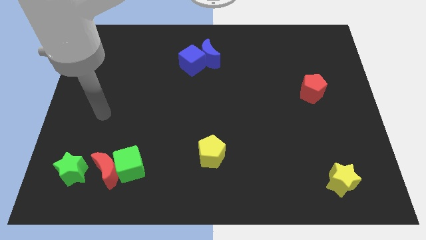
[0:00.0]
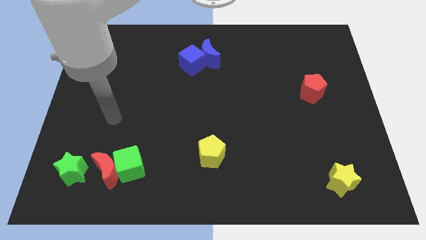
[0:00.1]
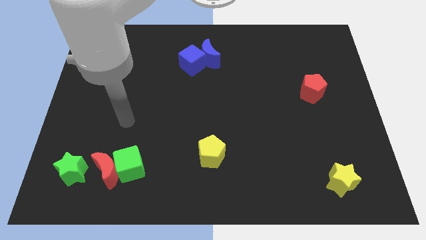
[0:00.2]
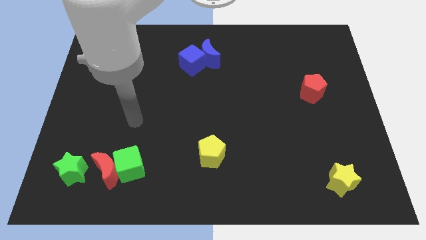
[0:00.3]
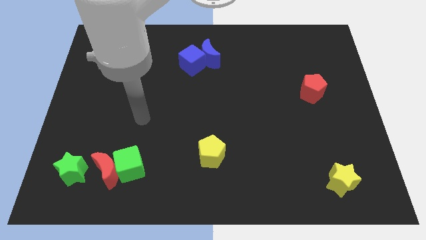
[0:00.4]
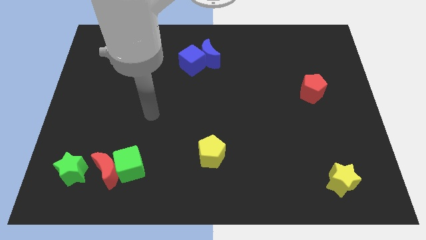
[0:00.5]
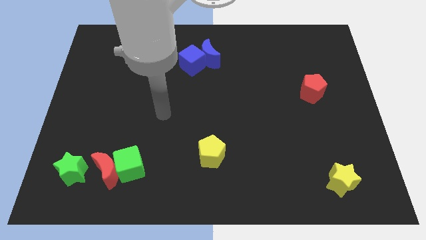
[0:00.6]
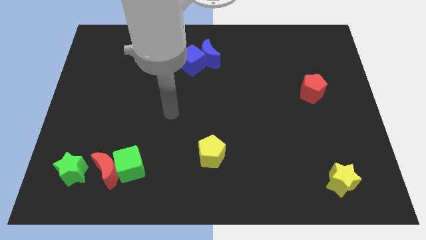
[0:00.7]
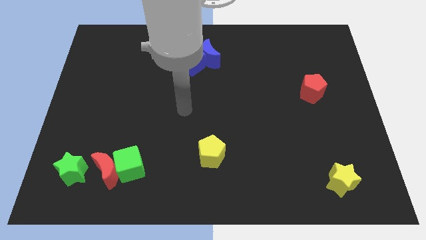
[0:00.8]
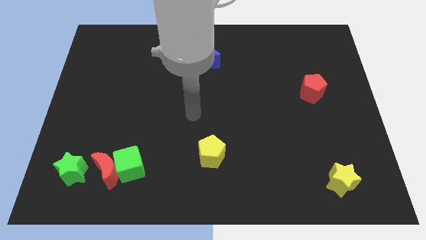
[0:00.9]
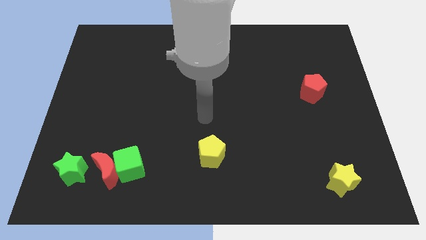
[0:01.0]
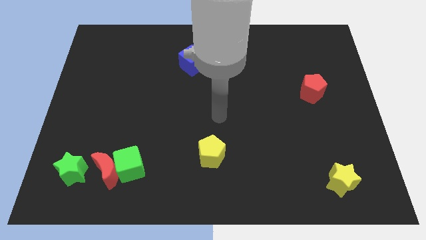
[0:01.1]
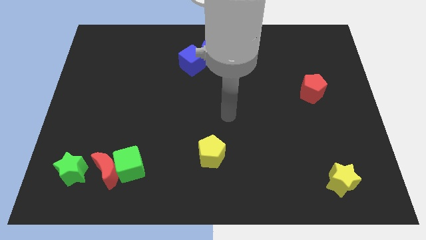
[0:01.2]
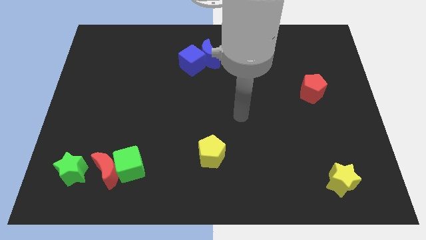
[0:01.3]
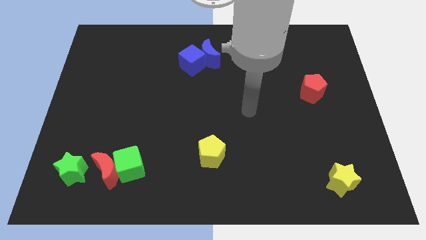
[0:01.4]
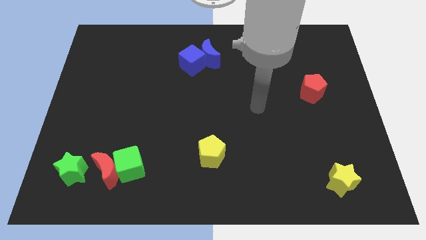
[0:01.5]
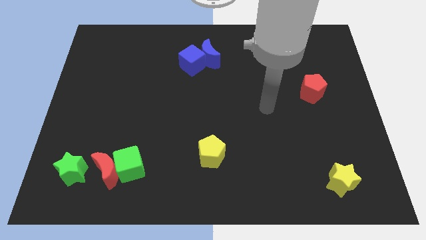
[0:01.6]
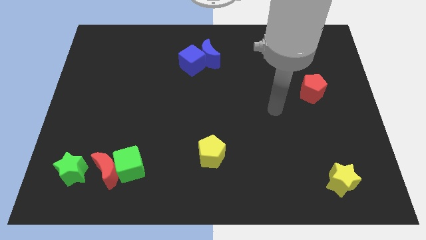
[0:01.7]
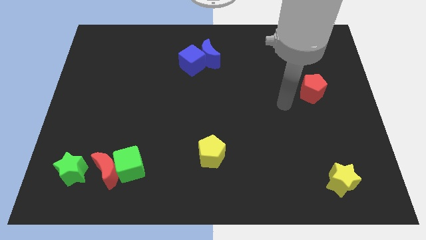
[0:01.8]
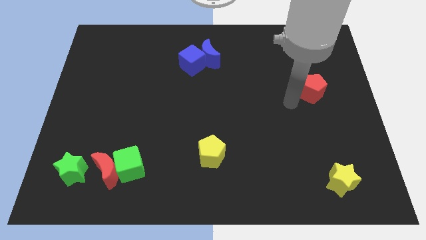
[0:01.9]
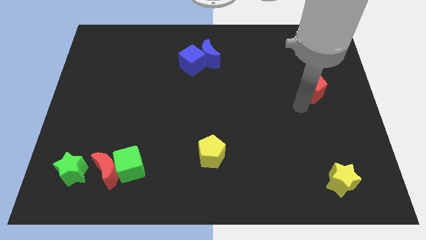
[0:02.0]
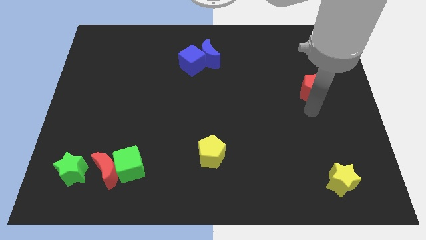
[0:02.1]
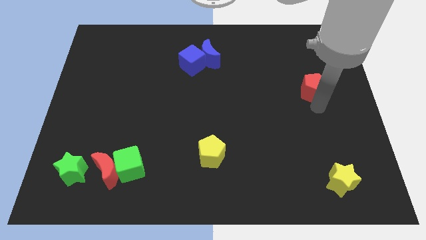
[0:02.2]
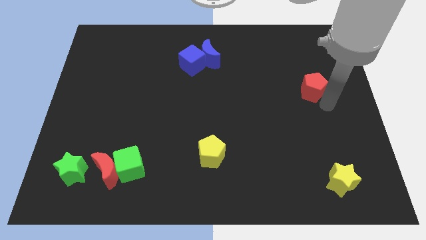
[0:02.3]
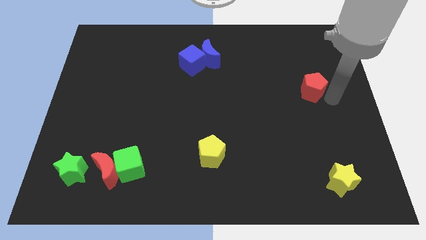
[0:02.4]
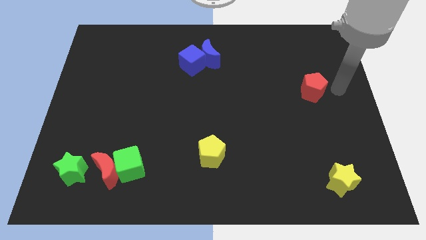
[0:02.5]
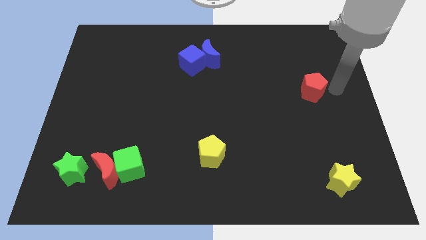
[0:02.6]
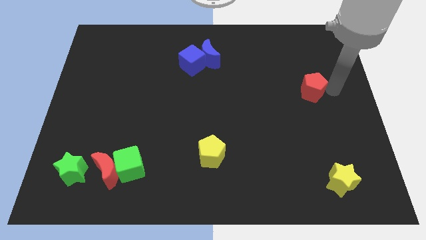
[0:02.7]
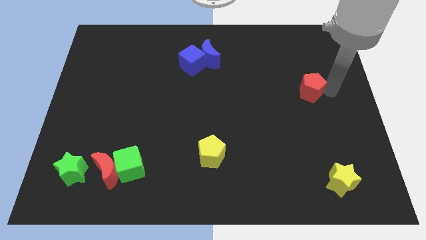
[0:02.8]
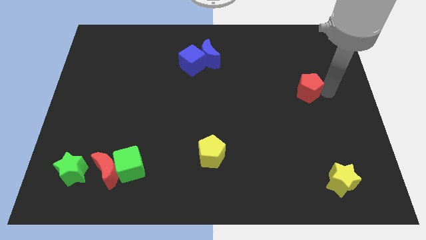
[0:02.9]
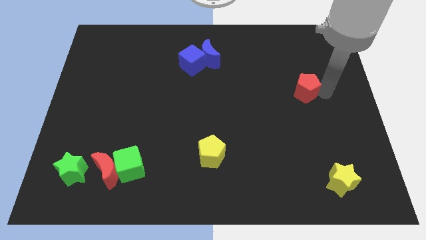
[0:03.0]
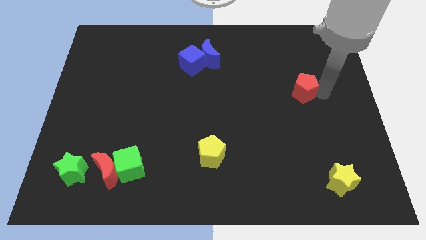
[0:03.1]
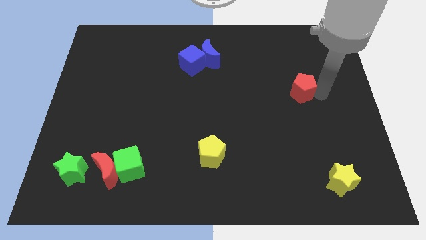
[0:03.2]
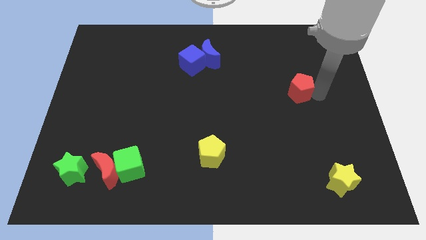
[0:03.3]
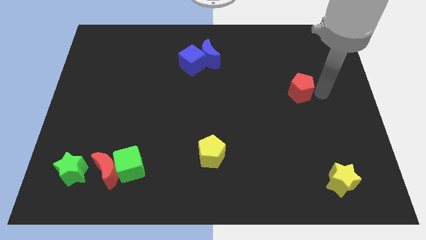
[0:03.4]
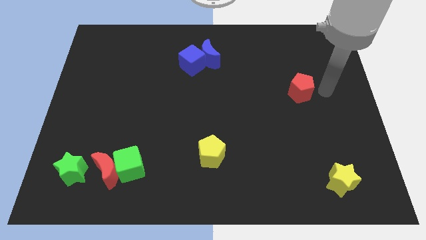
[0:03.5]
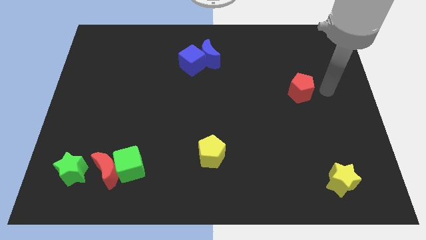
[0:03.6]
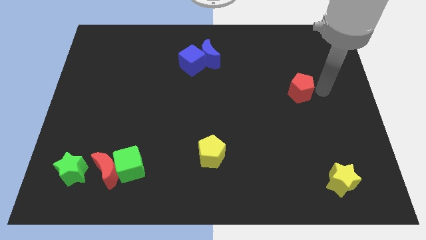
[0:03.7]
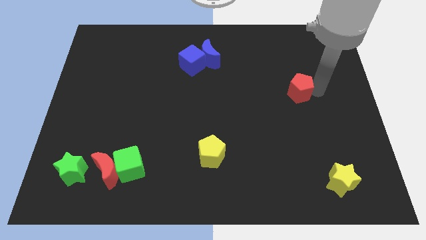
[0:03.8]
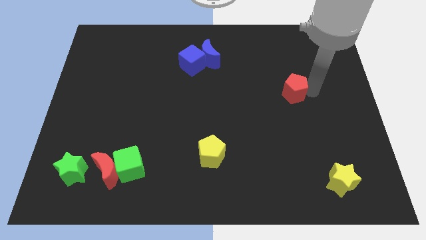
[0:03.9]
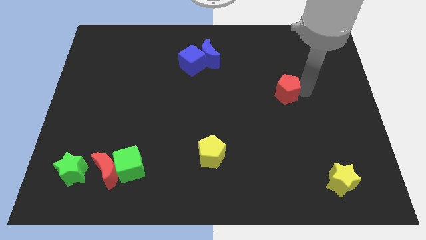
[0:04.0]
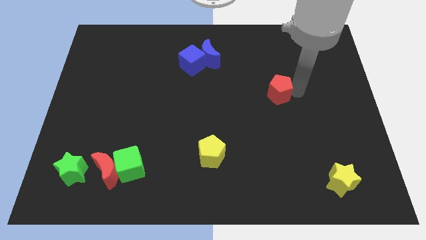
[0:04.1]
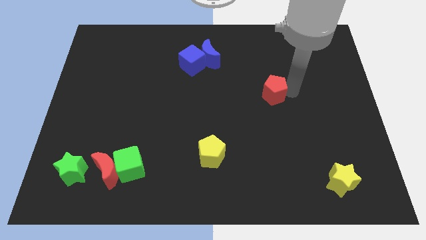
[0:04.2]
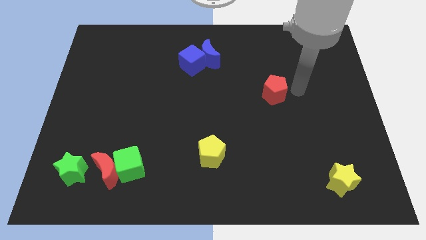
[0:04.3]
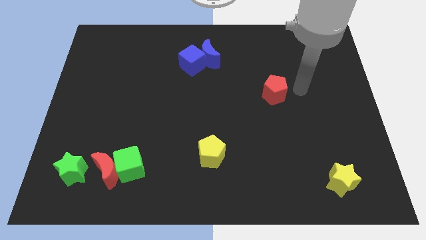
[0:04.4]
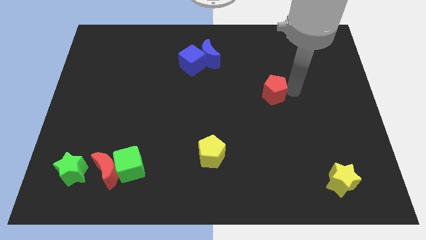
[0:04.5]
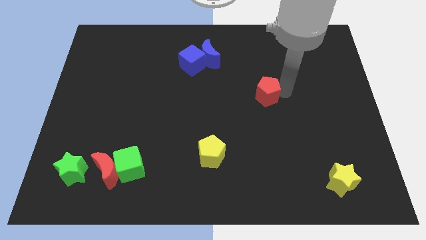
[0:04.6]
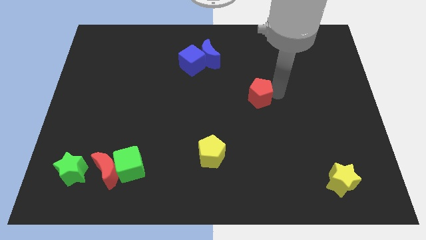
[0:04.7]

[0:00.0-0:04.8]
push the red pentagon to the middle

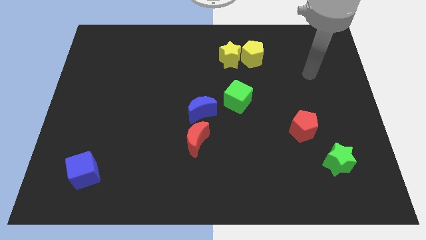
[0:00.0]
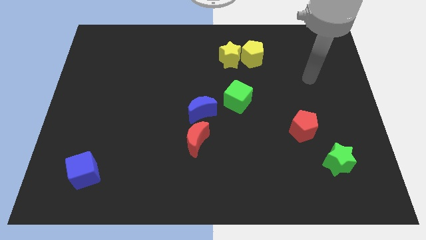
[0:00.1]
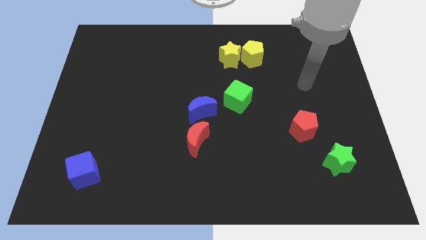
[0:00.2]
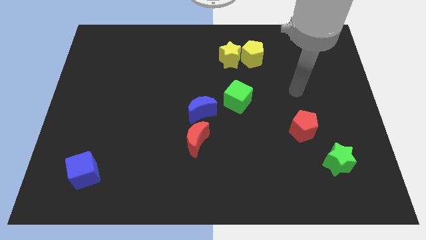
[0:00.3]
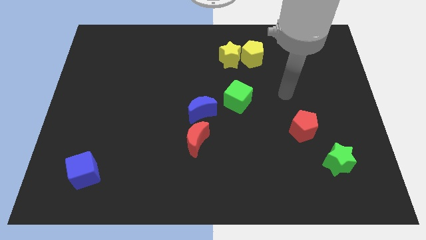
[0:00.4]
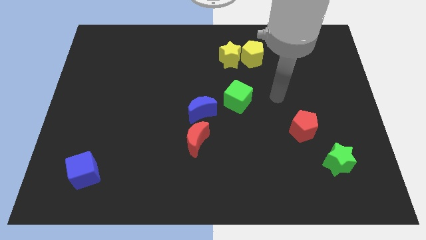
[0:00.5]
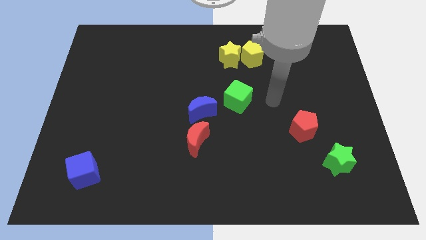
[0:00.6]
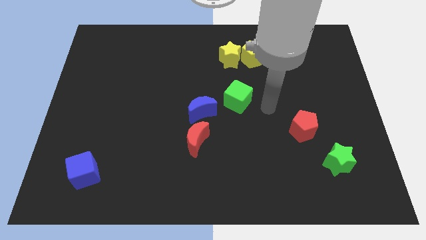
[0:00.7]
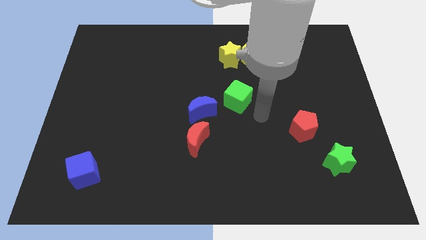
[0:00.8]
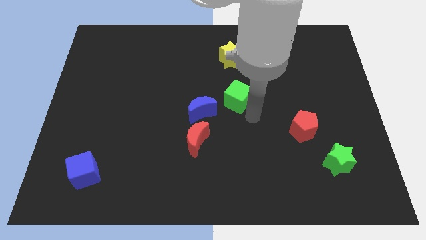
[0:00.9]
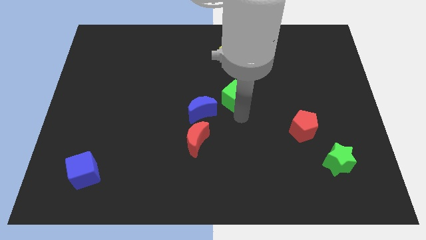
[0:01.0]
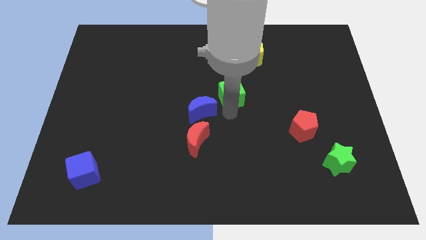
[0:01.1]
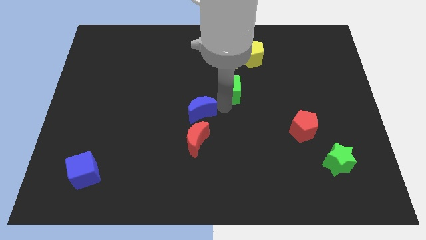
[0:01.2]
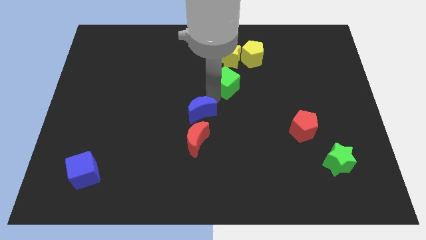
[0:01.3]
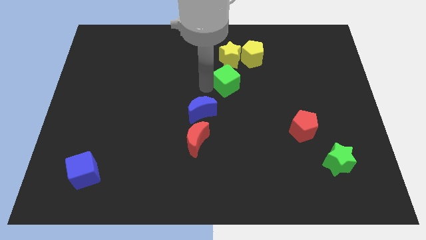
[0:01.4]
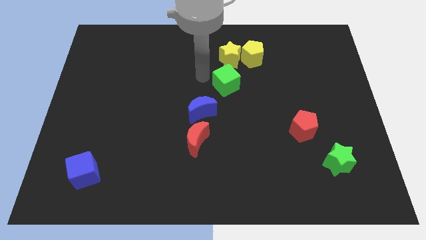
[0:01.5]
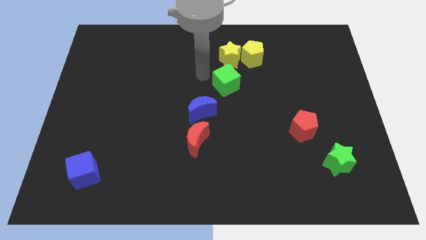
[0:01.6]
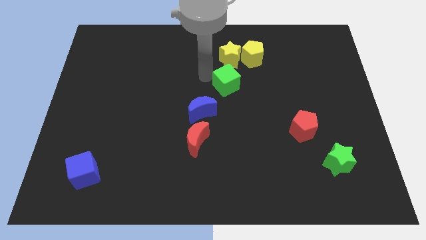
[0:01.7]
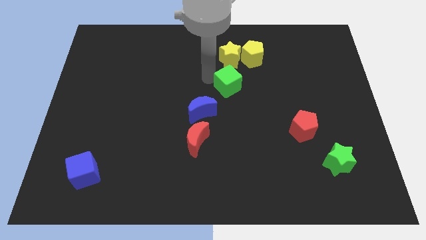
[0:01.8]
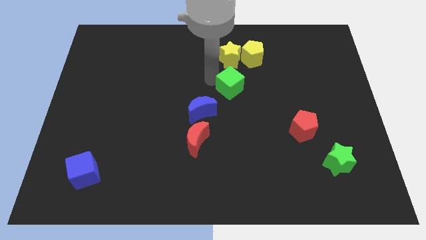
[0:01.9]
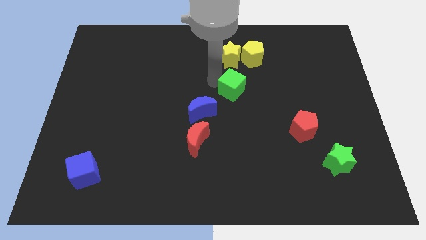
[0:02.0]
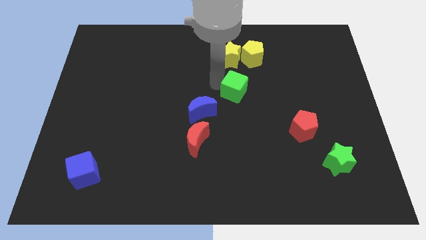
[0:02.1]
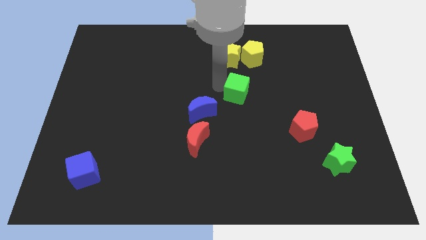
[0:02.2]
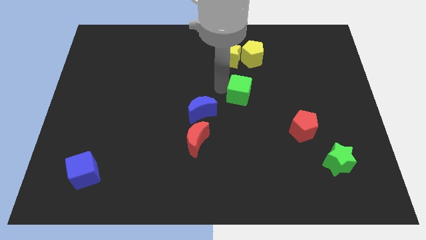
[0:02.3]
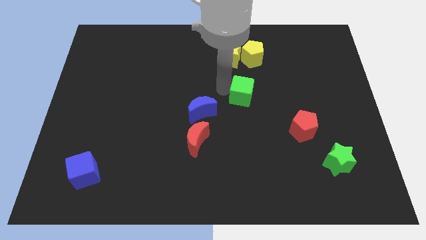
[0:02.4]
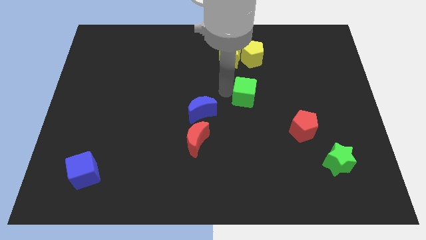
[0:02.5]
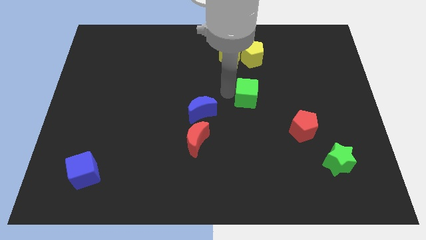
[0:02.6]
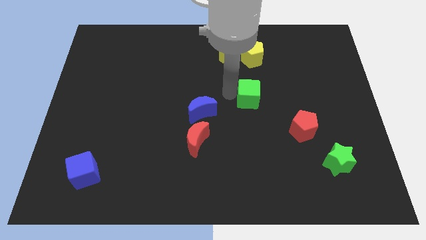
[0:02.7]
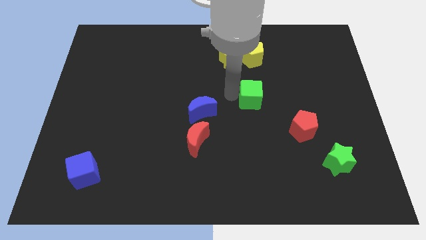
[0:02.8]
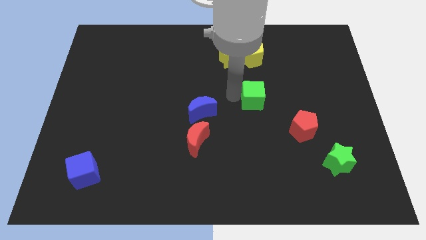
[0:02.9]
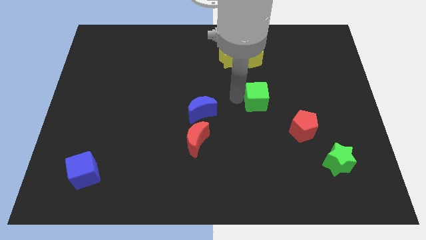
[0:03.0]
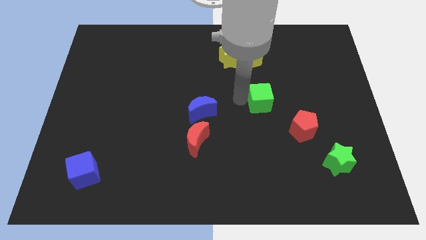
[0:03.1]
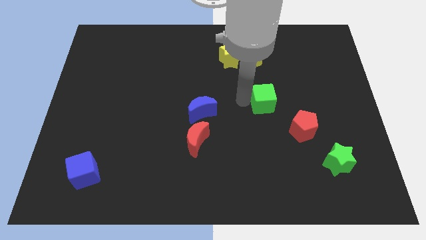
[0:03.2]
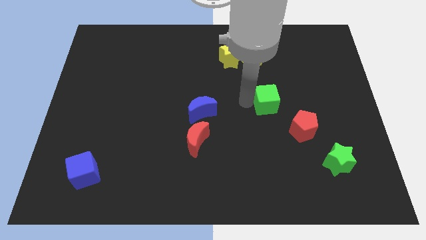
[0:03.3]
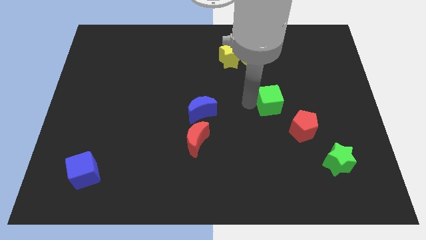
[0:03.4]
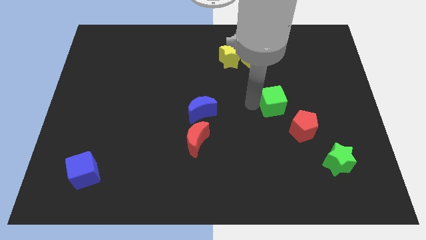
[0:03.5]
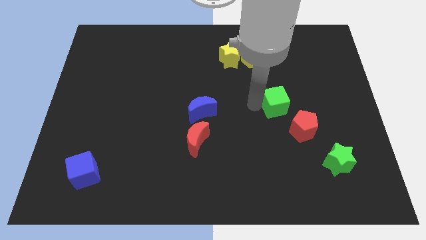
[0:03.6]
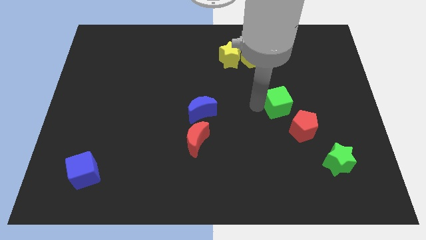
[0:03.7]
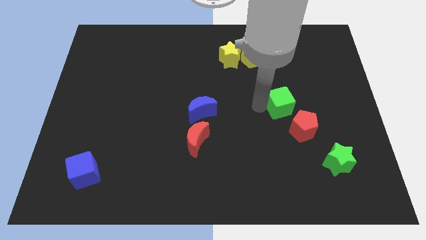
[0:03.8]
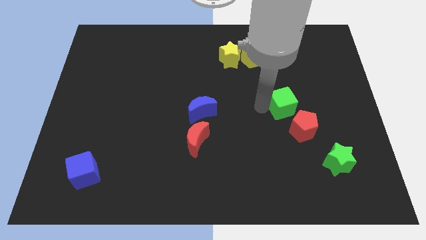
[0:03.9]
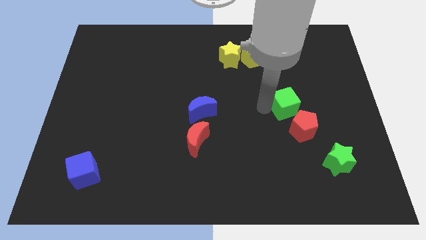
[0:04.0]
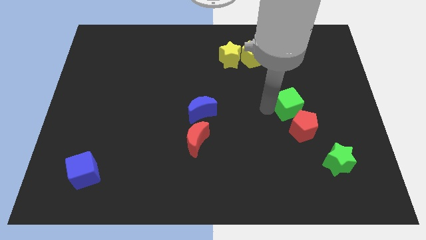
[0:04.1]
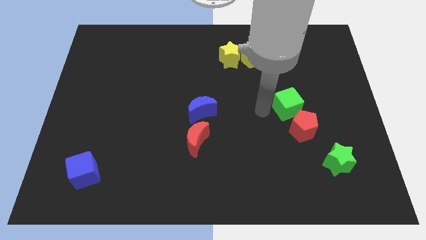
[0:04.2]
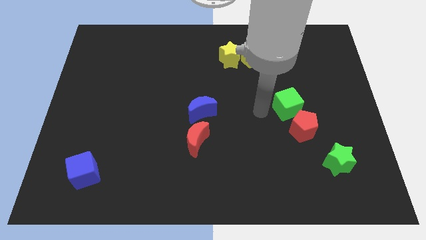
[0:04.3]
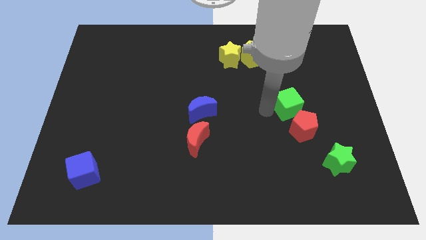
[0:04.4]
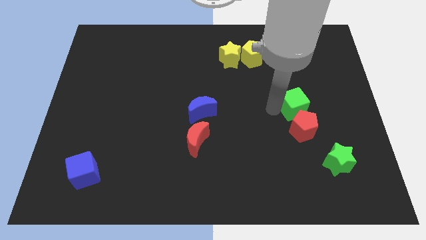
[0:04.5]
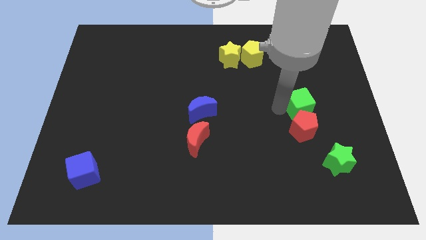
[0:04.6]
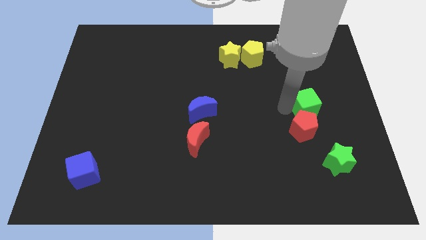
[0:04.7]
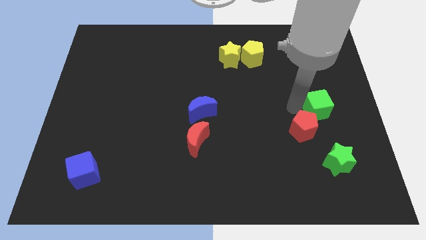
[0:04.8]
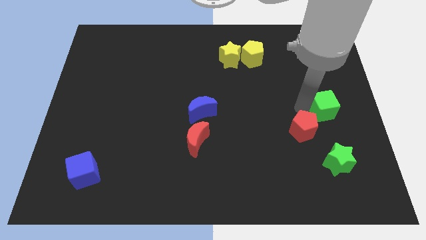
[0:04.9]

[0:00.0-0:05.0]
push the green cube to the center right
